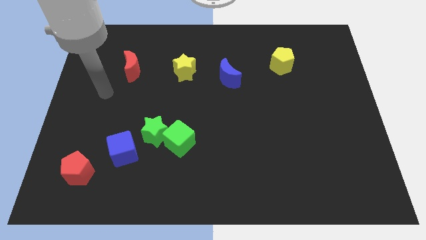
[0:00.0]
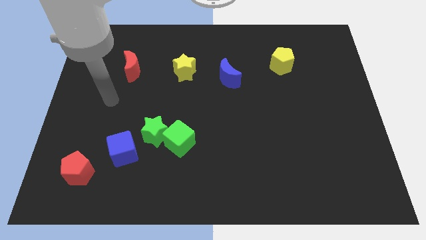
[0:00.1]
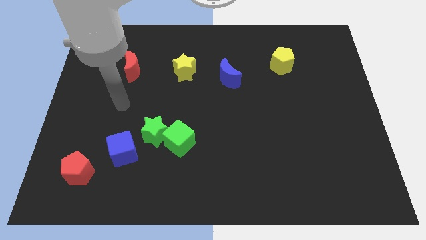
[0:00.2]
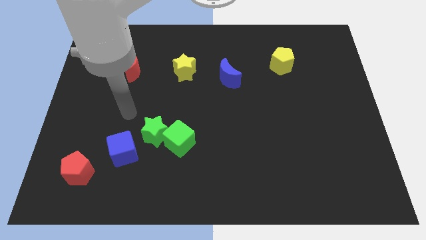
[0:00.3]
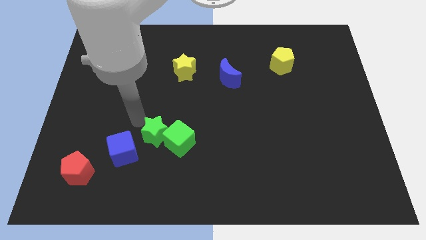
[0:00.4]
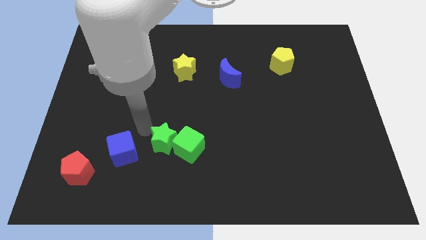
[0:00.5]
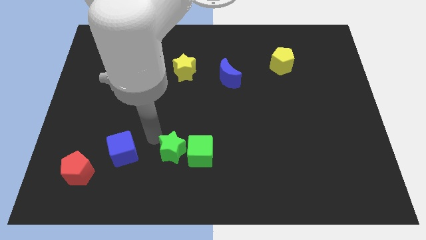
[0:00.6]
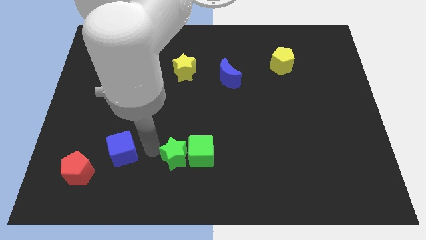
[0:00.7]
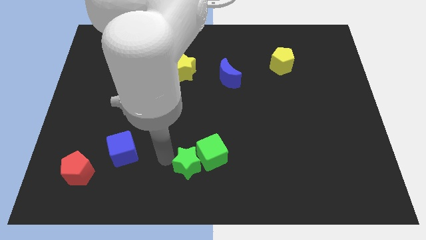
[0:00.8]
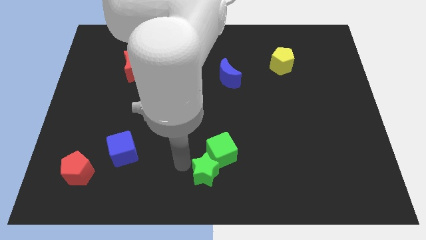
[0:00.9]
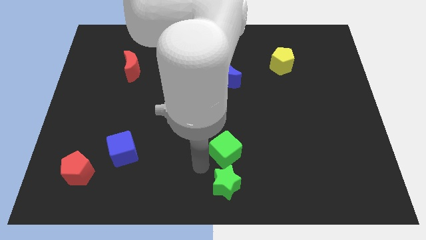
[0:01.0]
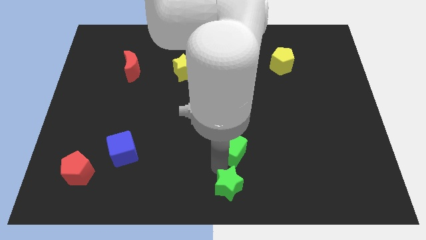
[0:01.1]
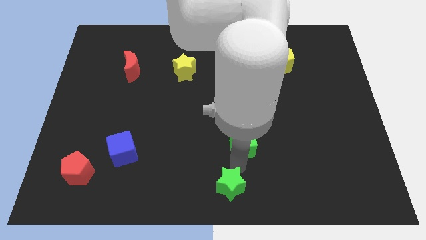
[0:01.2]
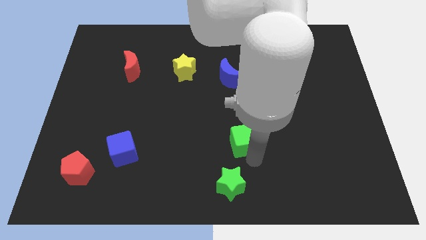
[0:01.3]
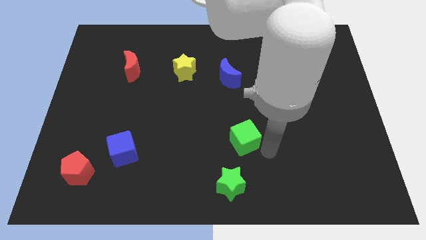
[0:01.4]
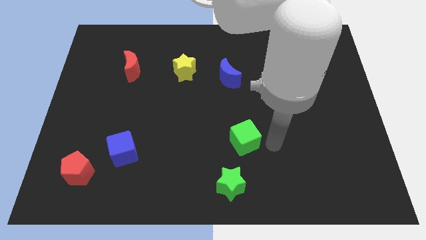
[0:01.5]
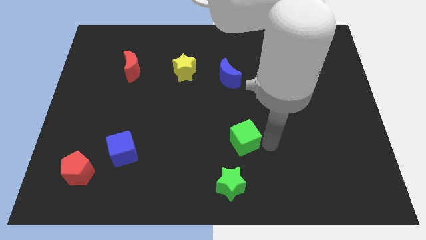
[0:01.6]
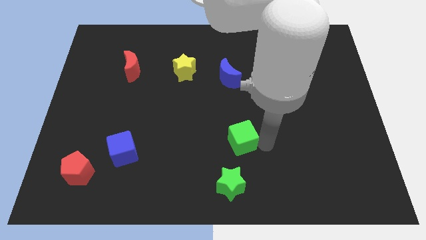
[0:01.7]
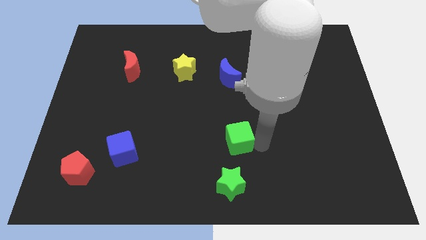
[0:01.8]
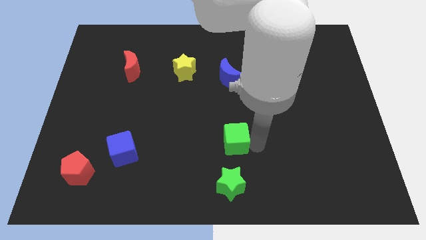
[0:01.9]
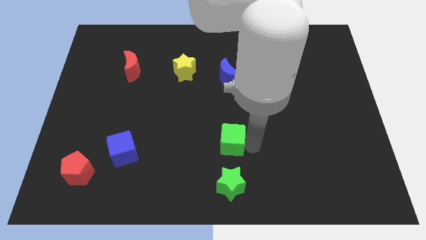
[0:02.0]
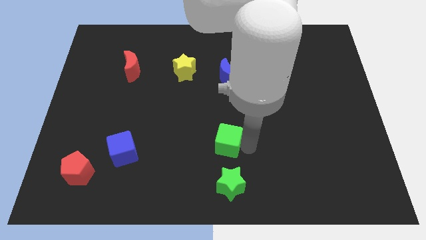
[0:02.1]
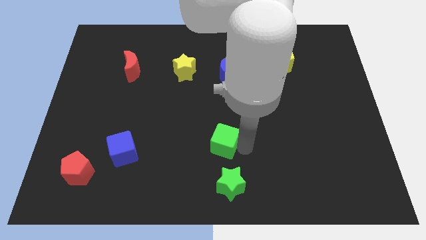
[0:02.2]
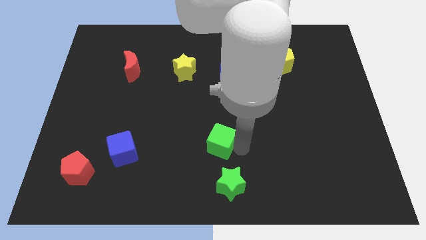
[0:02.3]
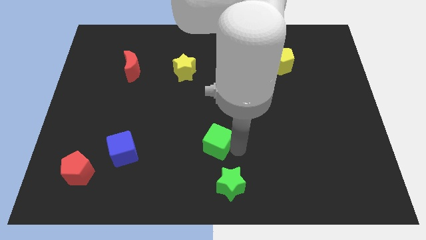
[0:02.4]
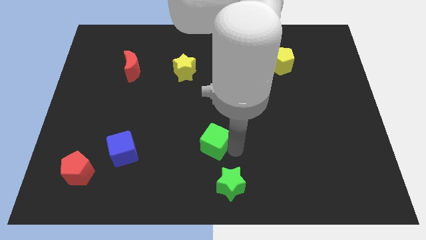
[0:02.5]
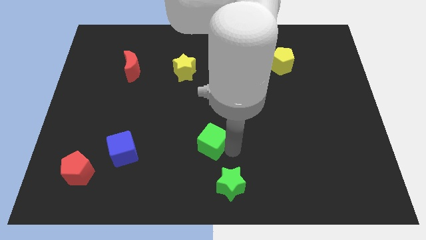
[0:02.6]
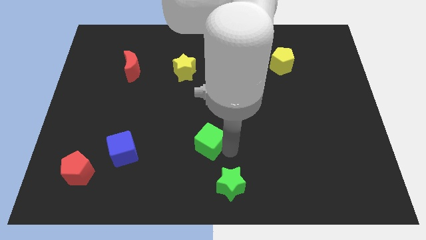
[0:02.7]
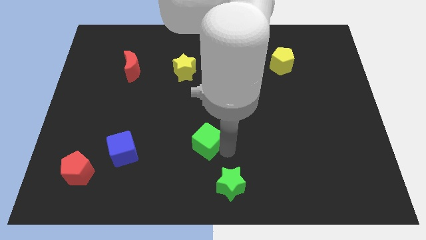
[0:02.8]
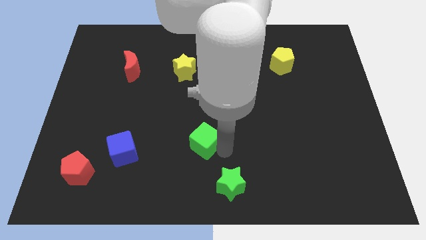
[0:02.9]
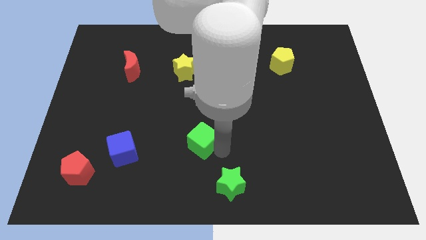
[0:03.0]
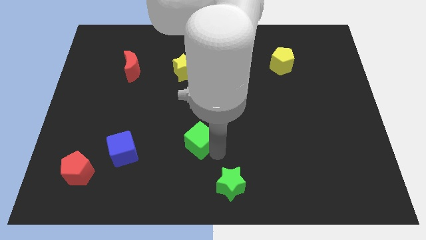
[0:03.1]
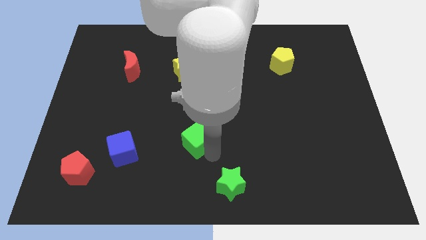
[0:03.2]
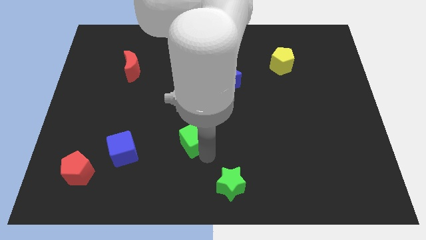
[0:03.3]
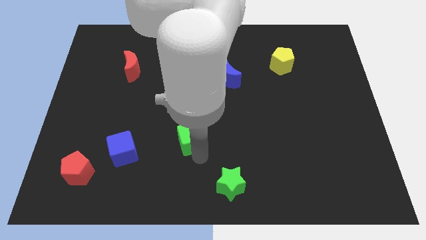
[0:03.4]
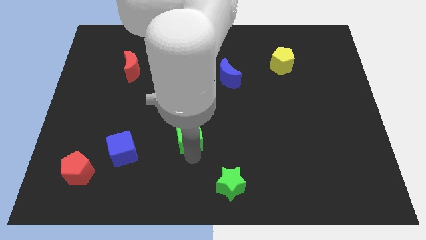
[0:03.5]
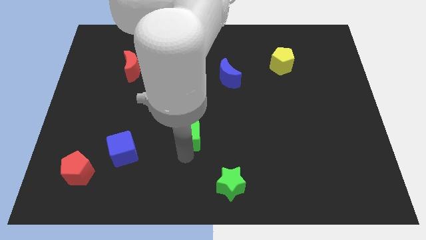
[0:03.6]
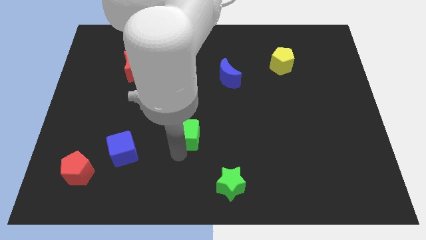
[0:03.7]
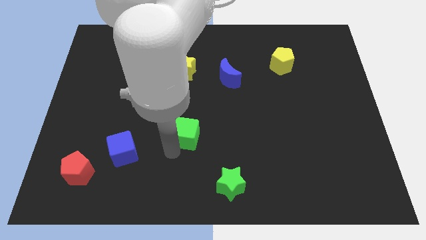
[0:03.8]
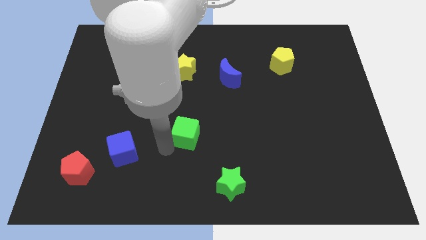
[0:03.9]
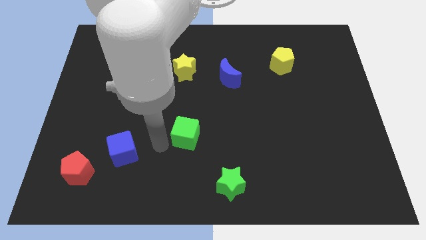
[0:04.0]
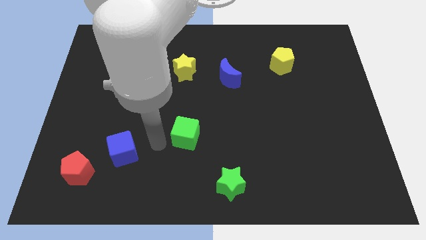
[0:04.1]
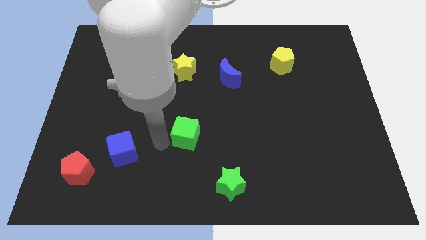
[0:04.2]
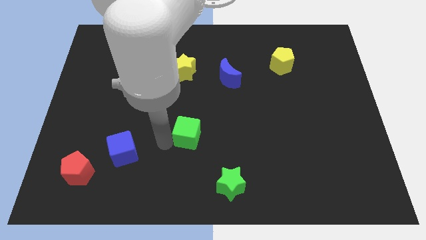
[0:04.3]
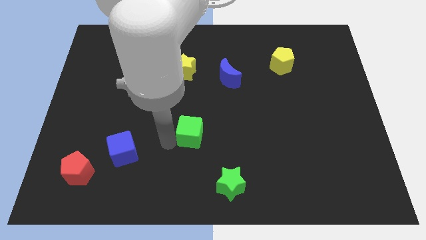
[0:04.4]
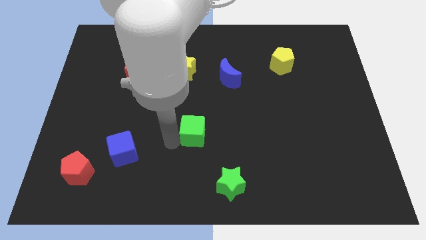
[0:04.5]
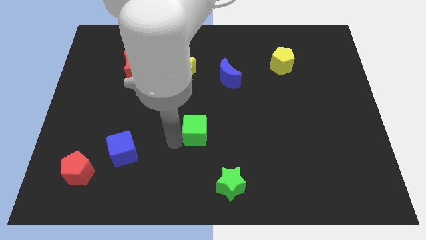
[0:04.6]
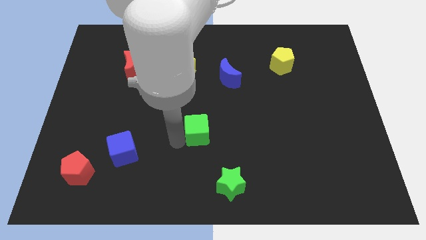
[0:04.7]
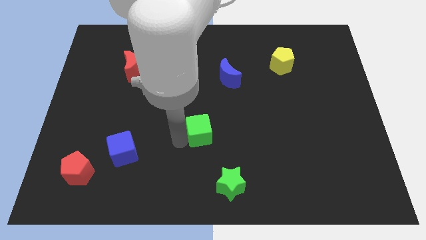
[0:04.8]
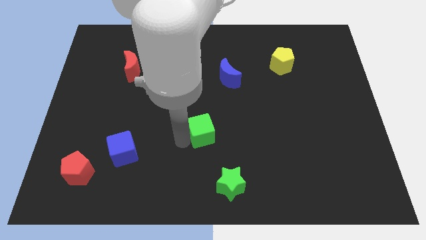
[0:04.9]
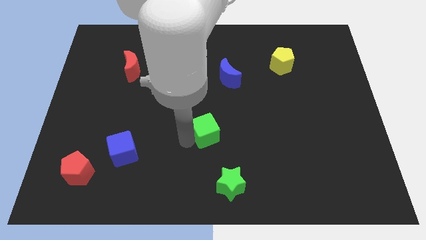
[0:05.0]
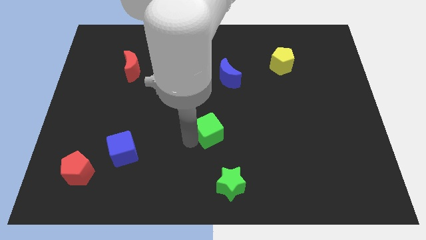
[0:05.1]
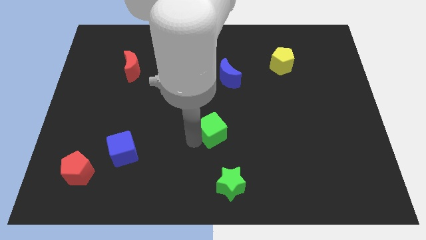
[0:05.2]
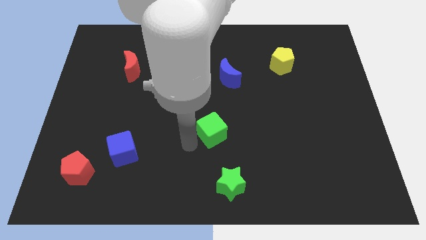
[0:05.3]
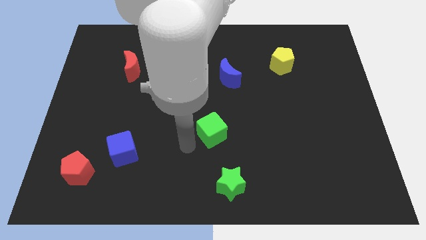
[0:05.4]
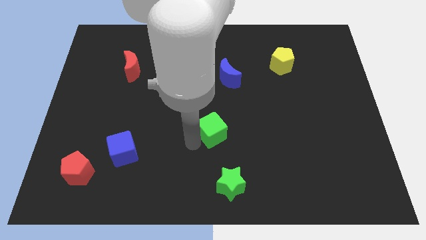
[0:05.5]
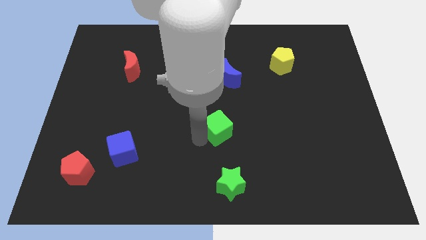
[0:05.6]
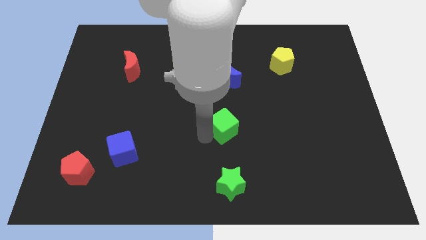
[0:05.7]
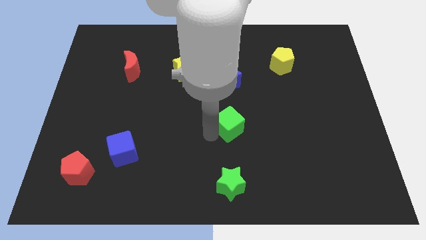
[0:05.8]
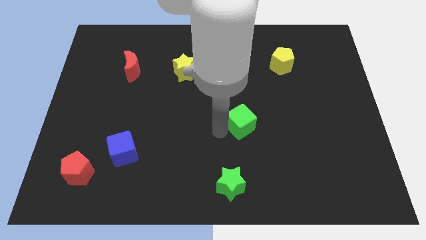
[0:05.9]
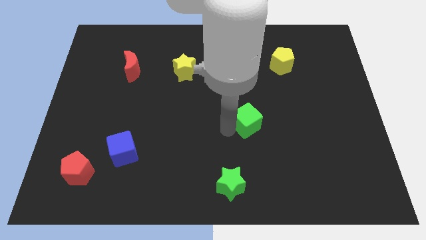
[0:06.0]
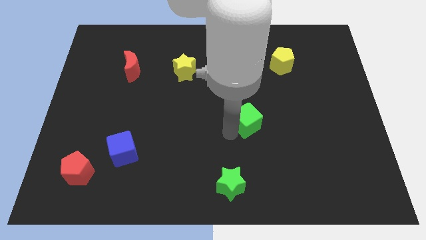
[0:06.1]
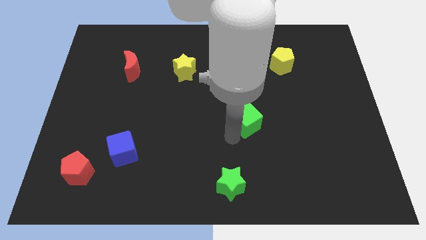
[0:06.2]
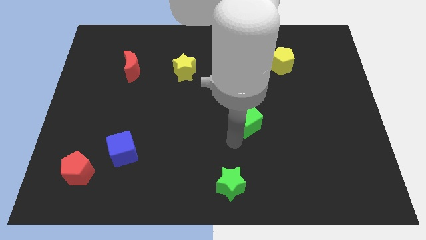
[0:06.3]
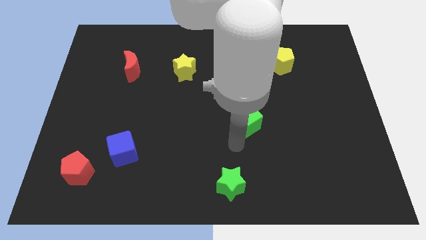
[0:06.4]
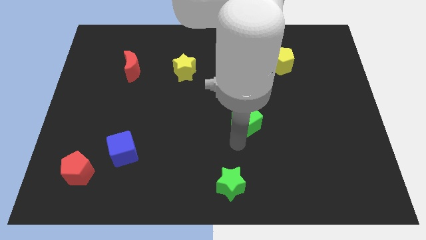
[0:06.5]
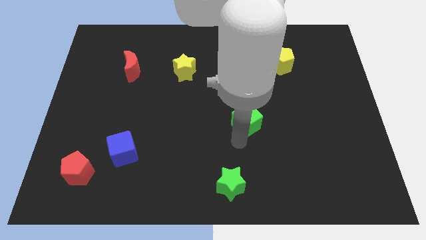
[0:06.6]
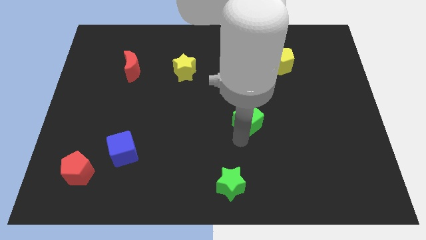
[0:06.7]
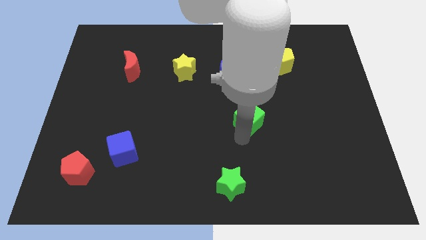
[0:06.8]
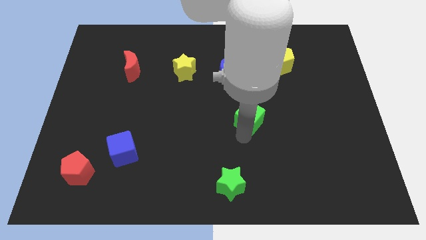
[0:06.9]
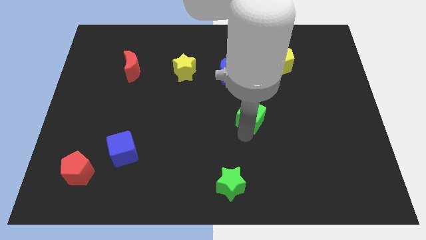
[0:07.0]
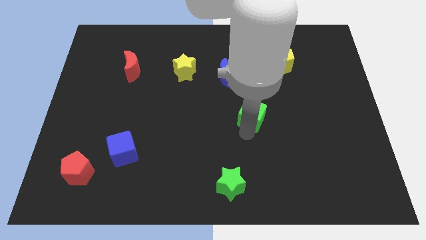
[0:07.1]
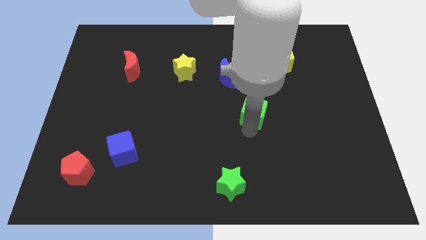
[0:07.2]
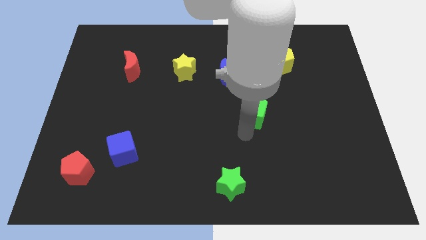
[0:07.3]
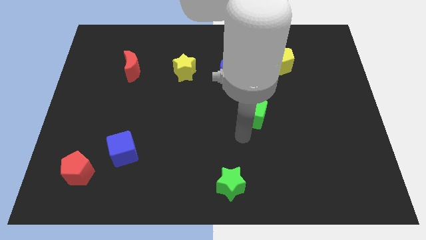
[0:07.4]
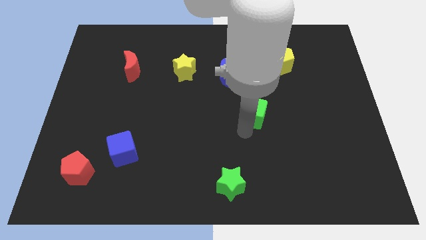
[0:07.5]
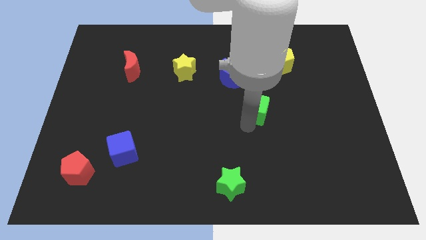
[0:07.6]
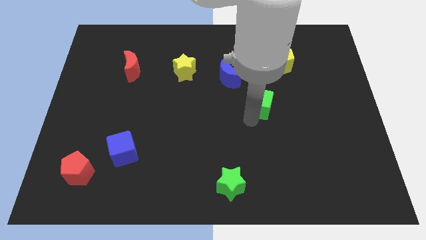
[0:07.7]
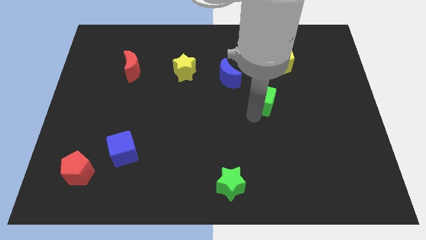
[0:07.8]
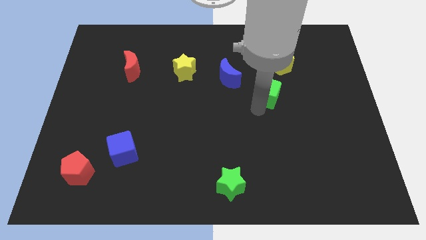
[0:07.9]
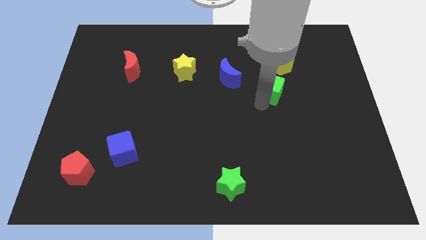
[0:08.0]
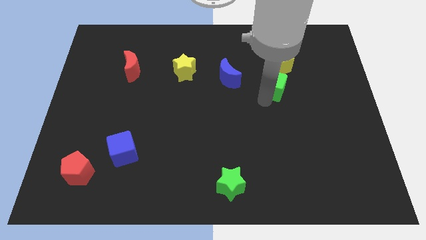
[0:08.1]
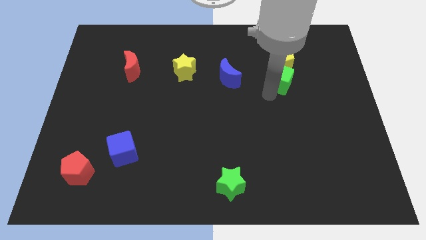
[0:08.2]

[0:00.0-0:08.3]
move the green cube to the yellow pentagon
